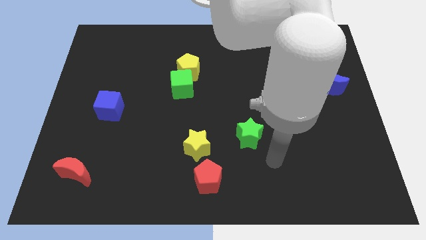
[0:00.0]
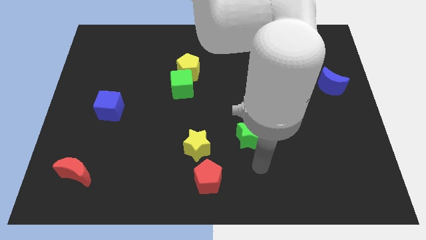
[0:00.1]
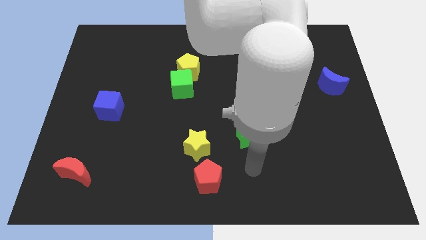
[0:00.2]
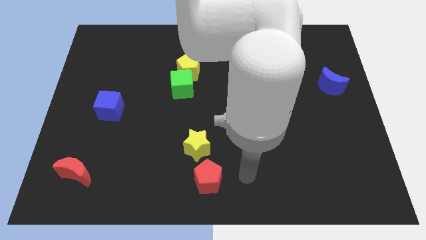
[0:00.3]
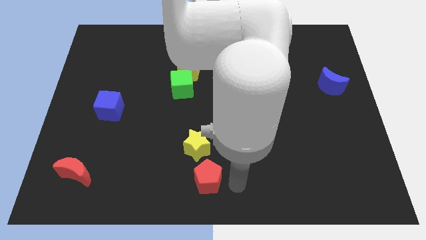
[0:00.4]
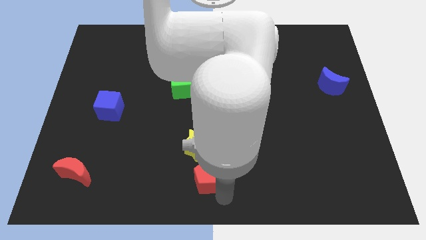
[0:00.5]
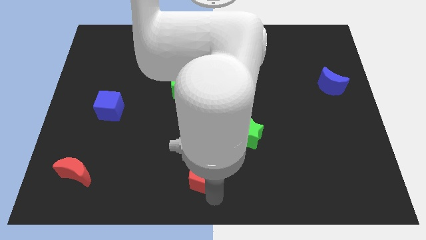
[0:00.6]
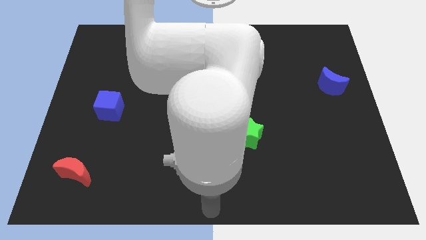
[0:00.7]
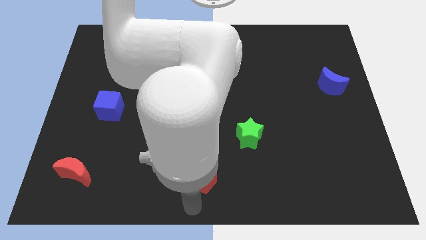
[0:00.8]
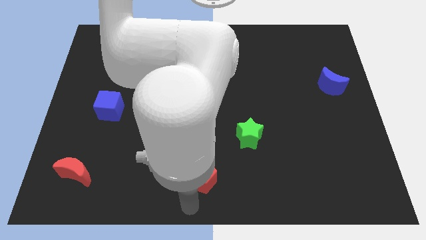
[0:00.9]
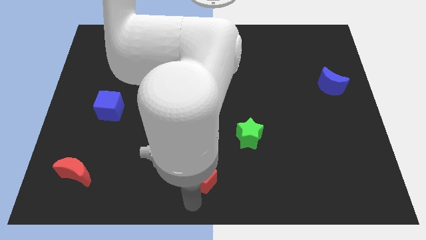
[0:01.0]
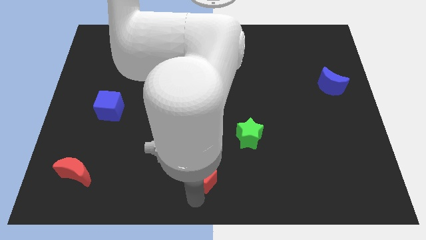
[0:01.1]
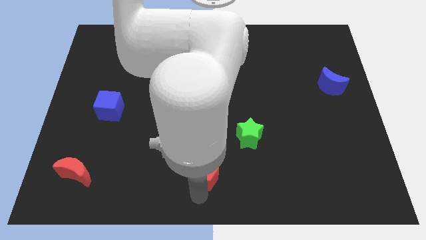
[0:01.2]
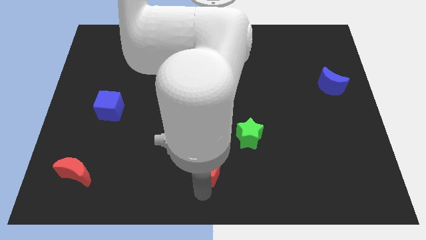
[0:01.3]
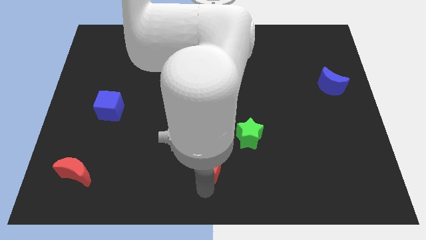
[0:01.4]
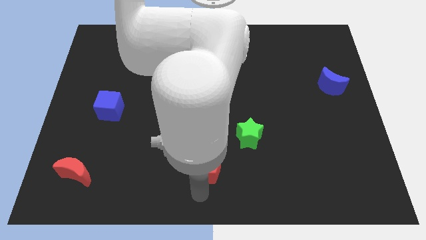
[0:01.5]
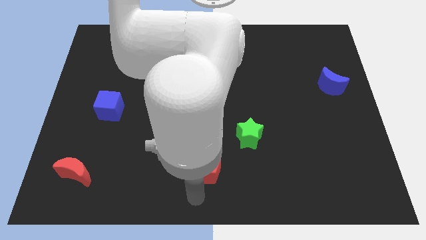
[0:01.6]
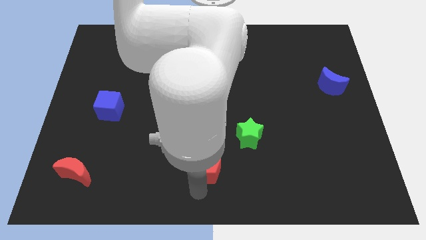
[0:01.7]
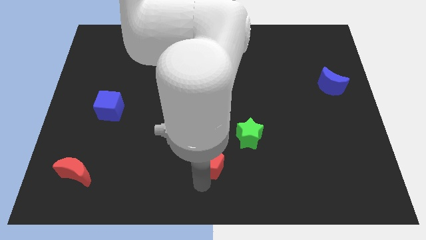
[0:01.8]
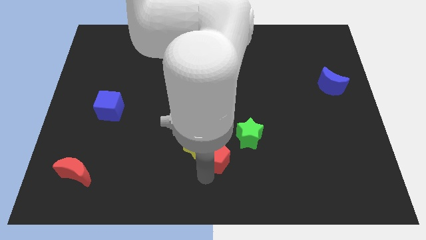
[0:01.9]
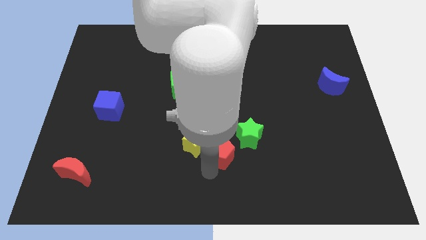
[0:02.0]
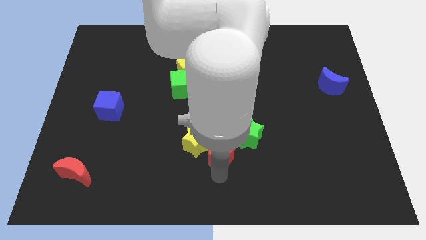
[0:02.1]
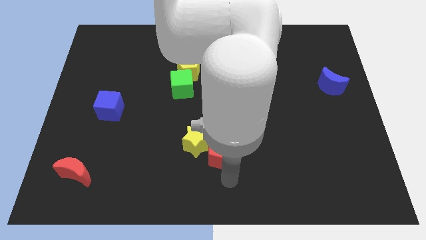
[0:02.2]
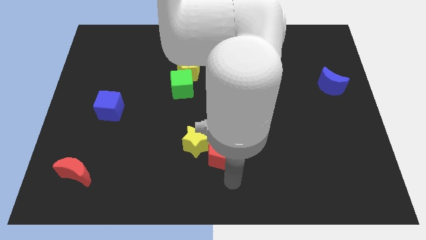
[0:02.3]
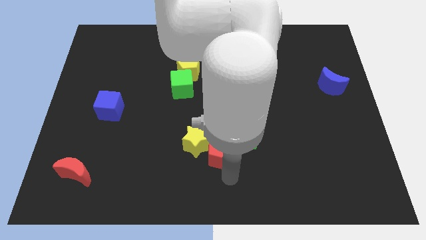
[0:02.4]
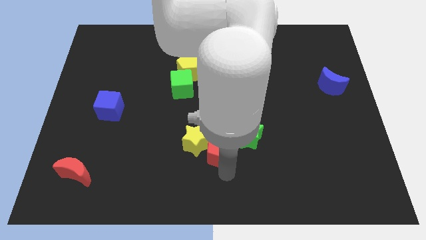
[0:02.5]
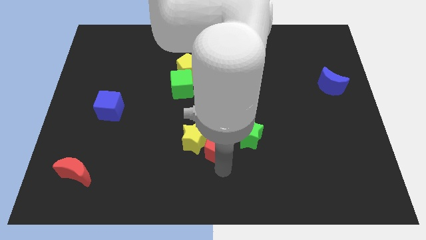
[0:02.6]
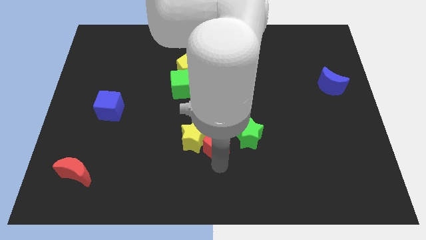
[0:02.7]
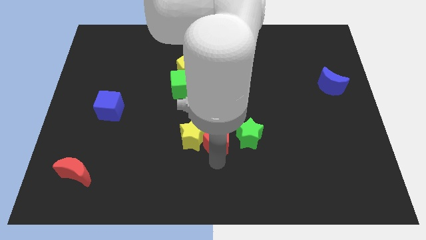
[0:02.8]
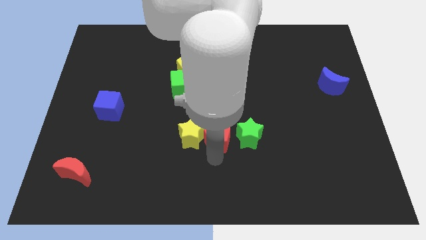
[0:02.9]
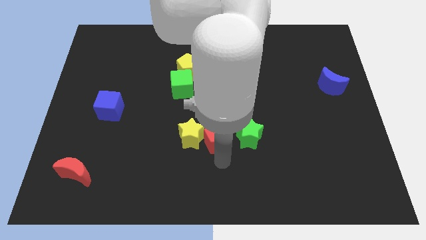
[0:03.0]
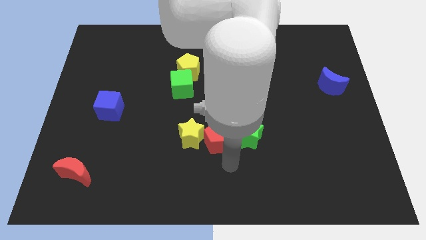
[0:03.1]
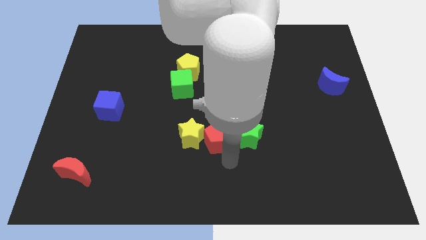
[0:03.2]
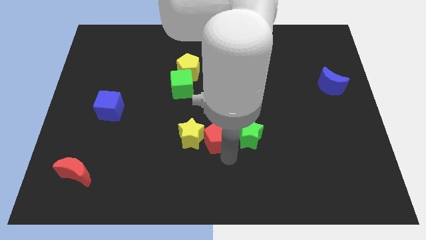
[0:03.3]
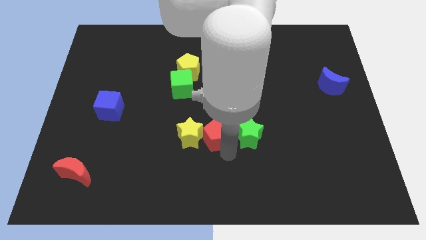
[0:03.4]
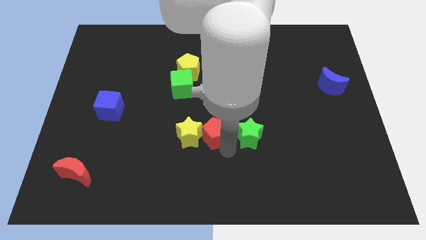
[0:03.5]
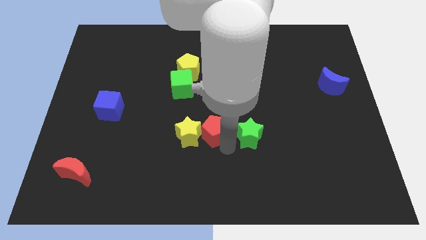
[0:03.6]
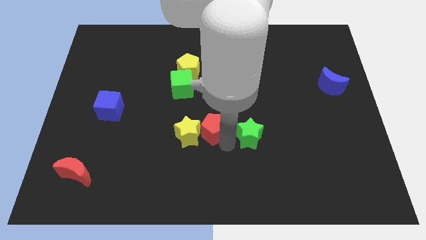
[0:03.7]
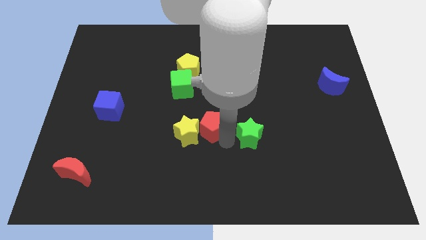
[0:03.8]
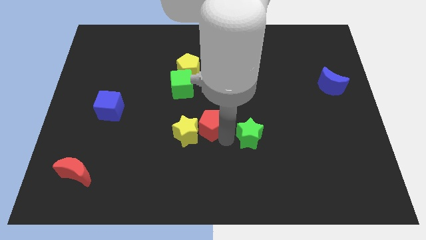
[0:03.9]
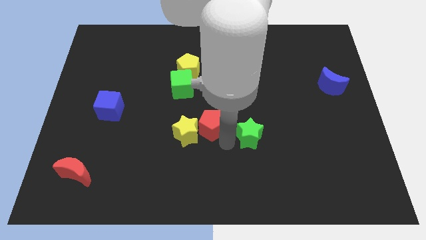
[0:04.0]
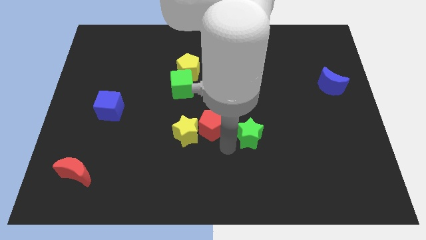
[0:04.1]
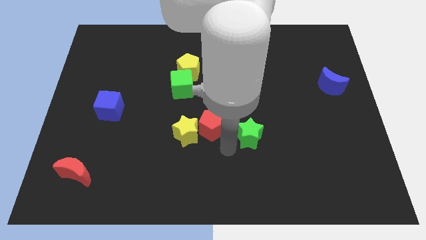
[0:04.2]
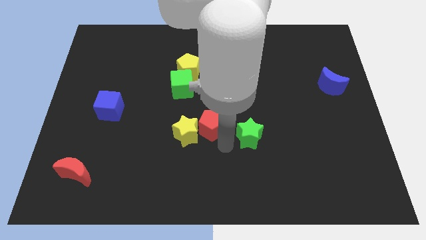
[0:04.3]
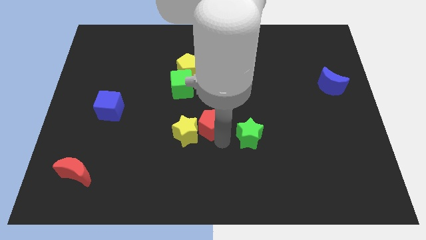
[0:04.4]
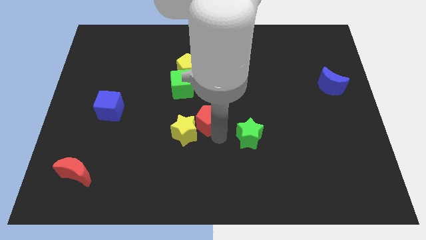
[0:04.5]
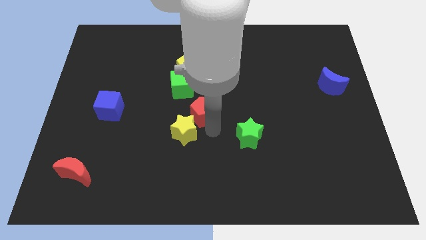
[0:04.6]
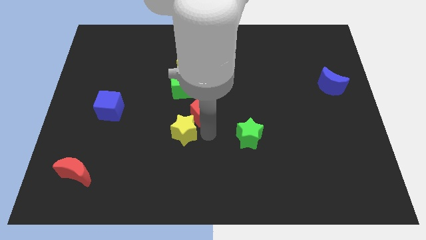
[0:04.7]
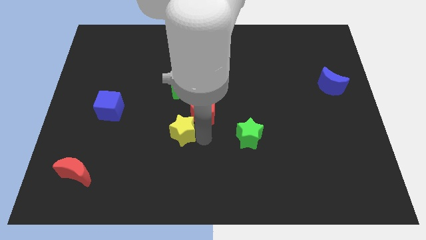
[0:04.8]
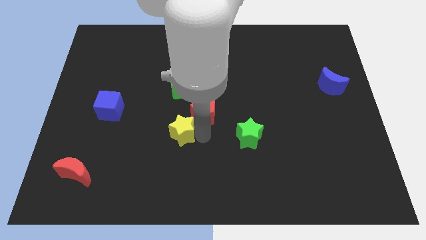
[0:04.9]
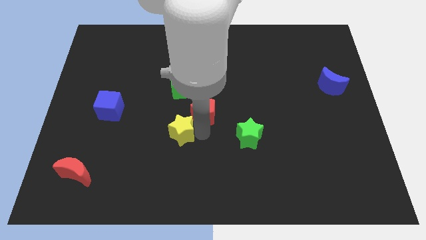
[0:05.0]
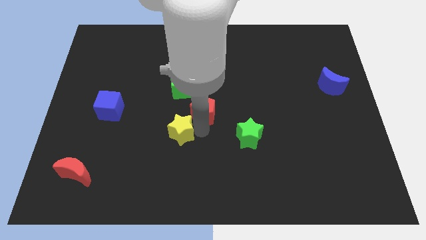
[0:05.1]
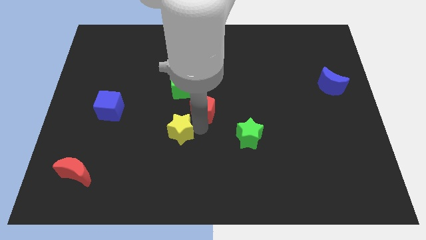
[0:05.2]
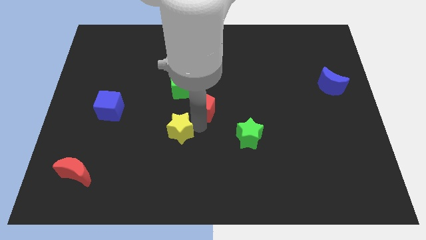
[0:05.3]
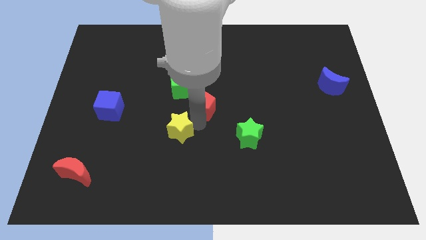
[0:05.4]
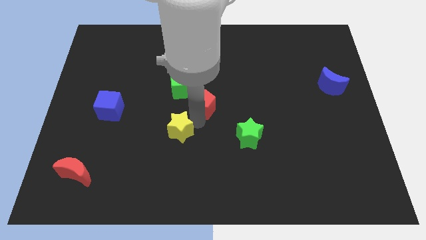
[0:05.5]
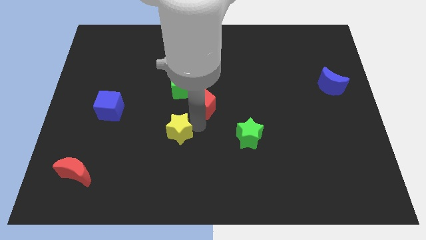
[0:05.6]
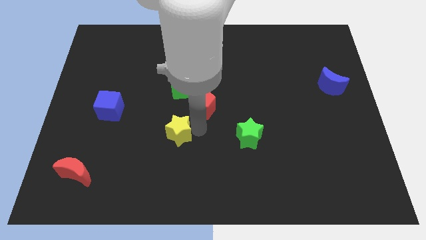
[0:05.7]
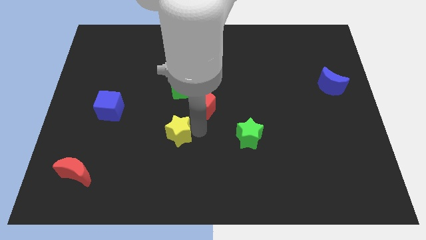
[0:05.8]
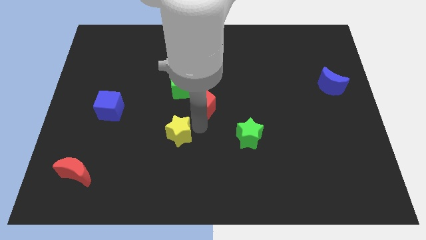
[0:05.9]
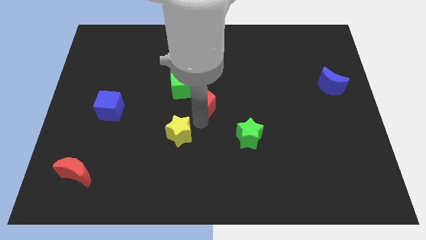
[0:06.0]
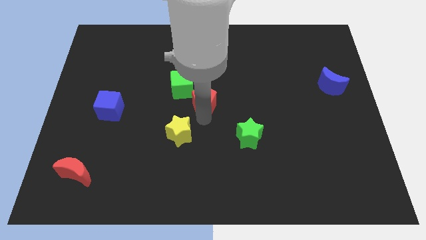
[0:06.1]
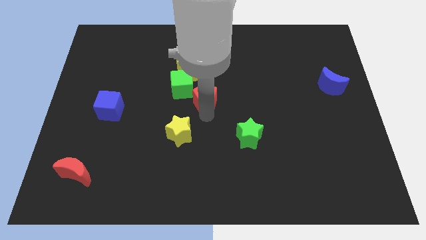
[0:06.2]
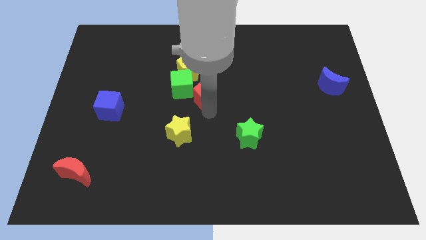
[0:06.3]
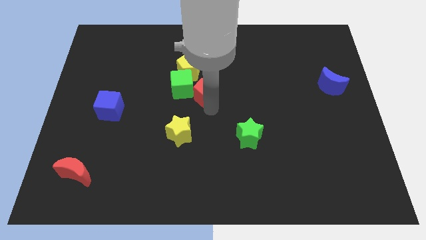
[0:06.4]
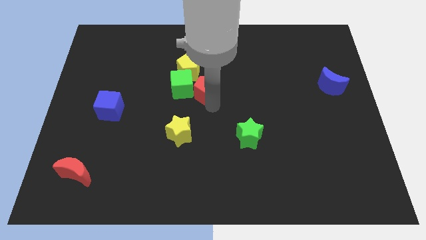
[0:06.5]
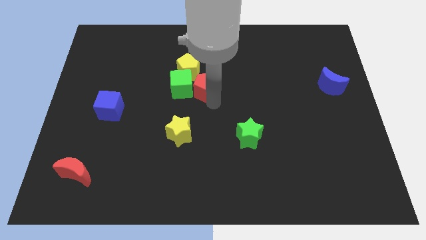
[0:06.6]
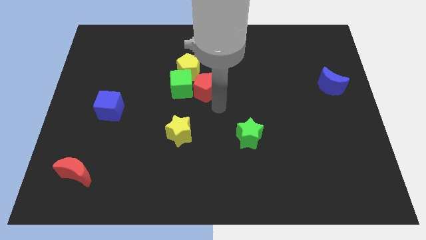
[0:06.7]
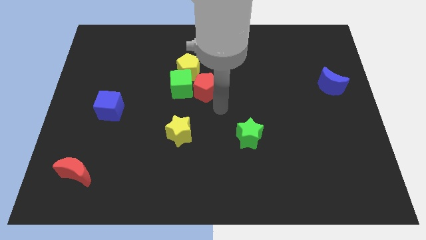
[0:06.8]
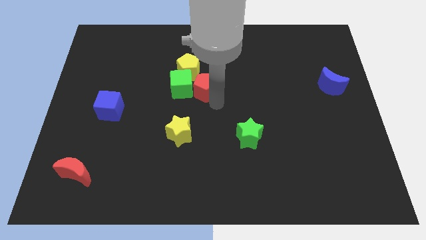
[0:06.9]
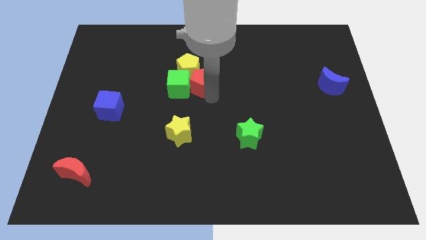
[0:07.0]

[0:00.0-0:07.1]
move the red pentagon to the yellow pentagon
